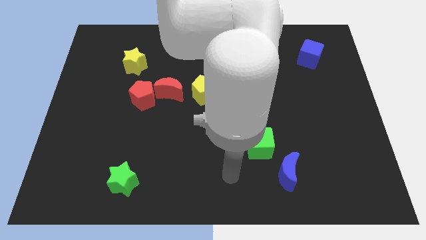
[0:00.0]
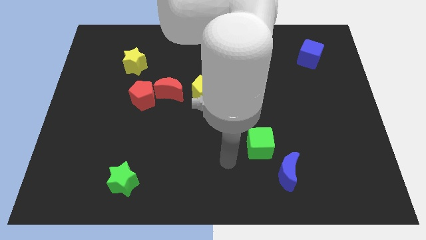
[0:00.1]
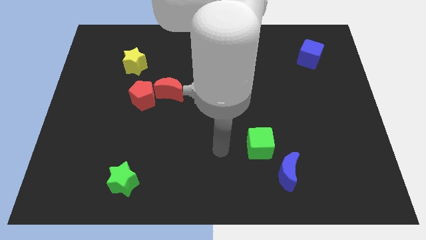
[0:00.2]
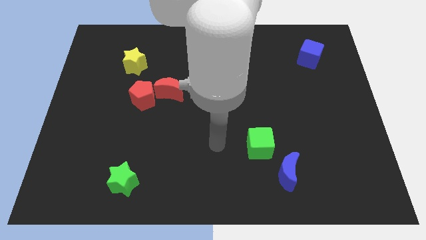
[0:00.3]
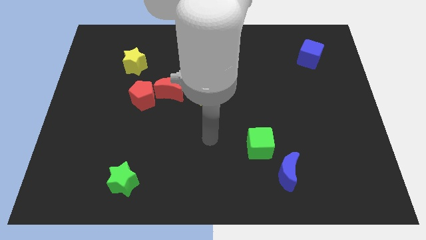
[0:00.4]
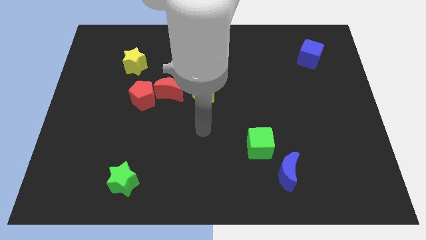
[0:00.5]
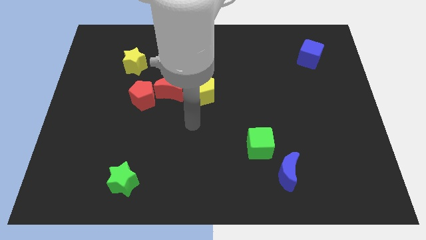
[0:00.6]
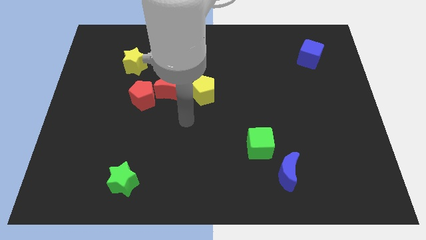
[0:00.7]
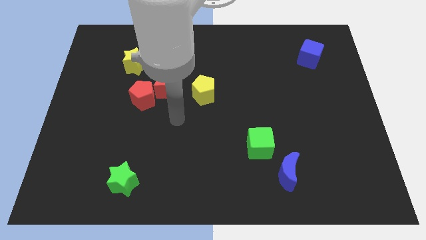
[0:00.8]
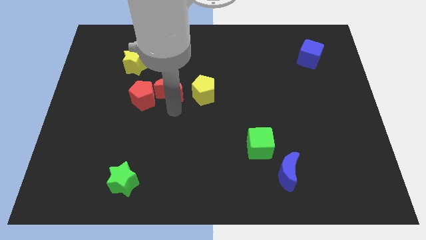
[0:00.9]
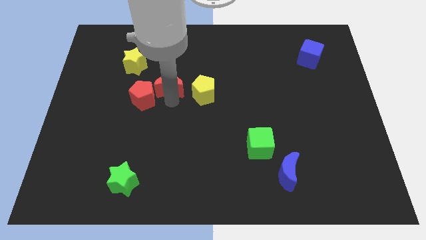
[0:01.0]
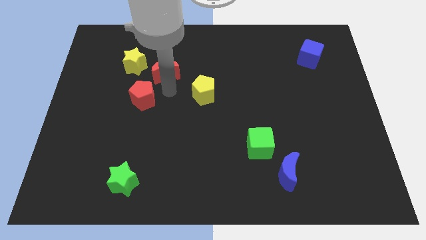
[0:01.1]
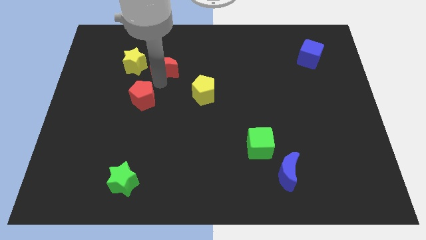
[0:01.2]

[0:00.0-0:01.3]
move the red pentagon away from the red moon

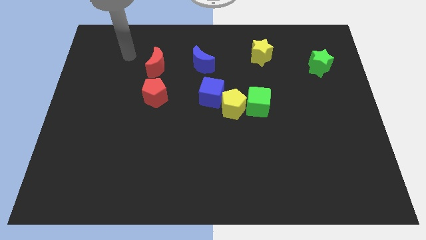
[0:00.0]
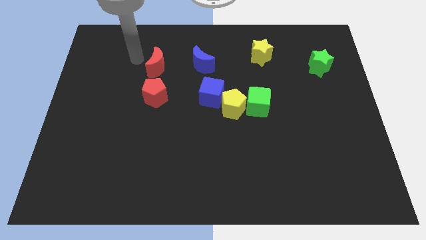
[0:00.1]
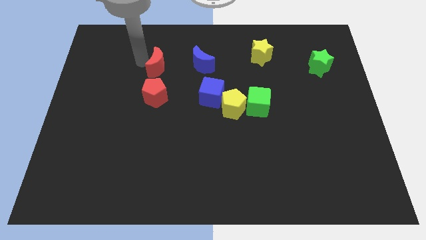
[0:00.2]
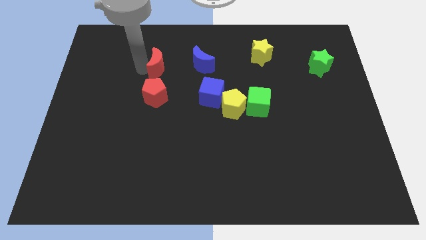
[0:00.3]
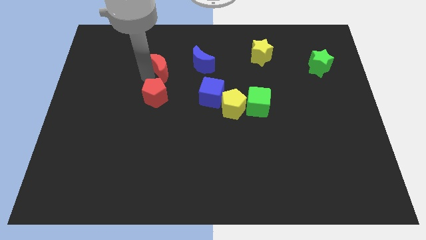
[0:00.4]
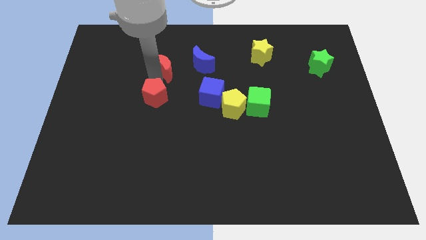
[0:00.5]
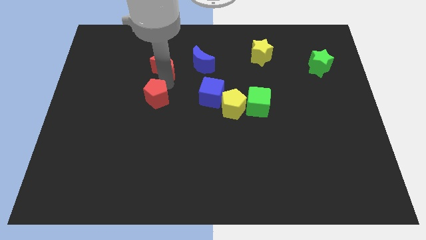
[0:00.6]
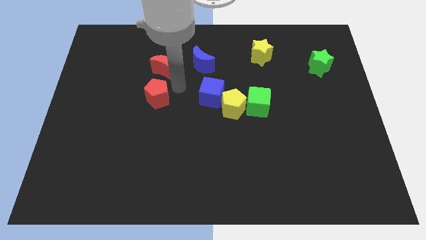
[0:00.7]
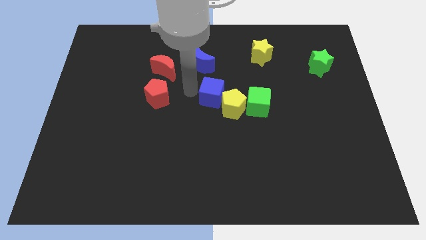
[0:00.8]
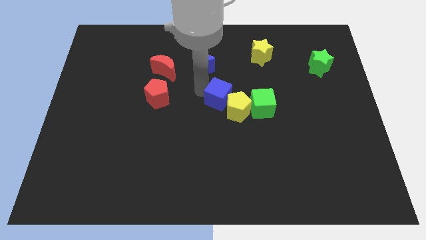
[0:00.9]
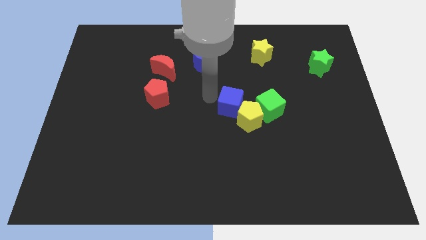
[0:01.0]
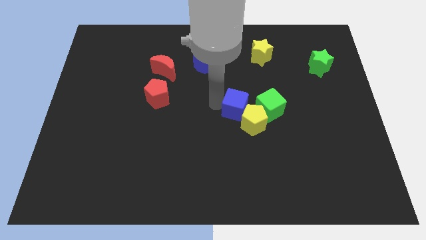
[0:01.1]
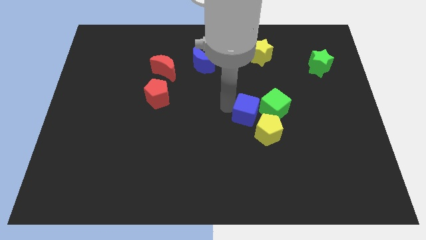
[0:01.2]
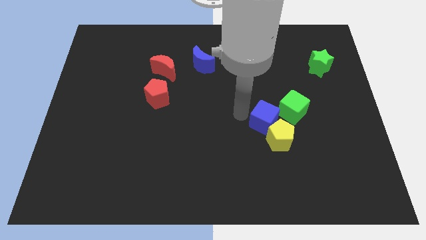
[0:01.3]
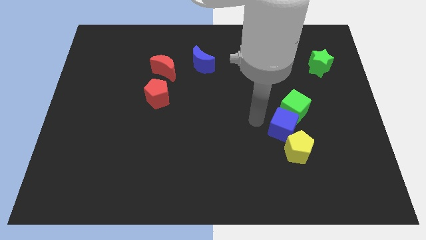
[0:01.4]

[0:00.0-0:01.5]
pull the green cube apart from the yellow pentagon

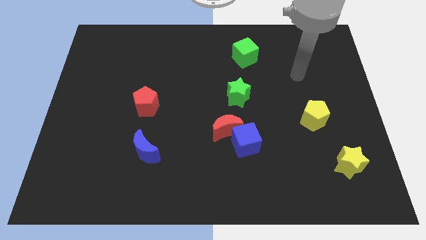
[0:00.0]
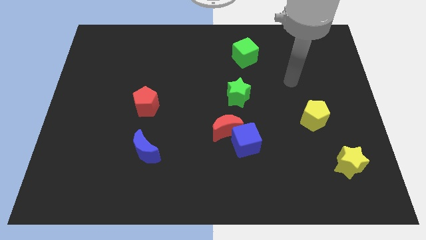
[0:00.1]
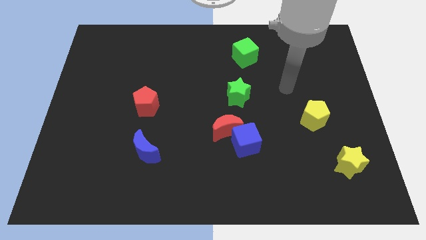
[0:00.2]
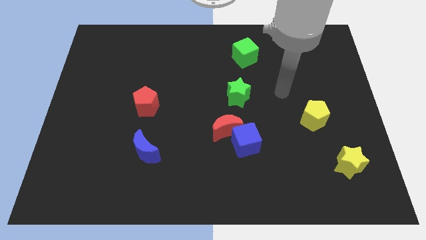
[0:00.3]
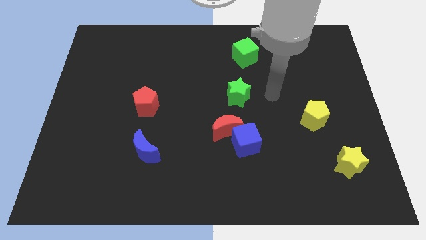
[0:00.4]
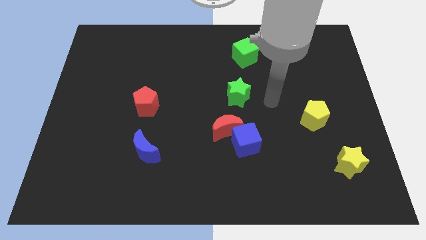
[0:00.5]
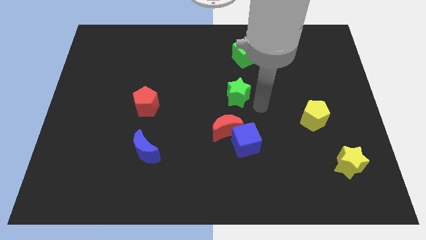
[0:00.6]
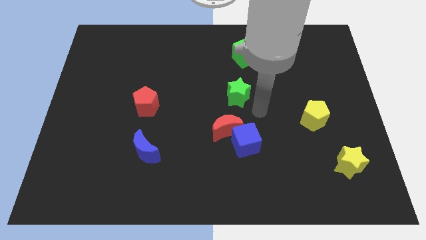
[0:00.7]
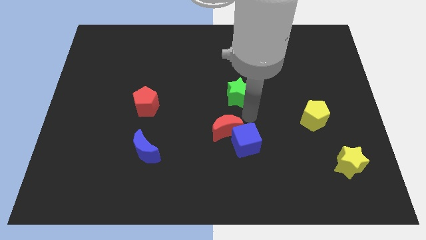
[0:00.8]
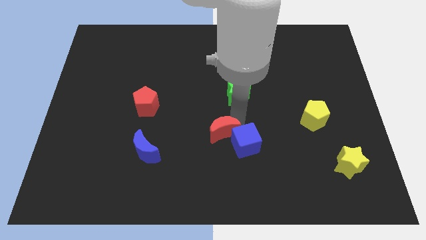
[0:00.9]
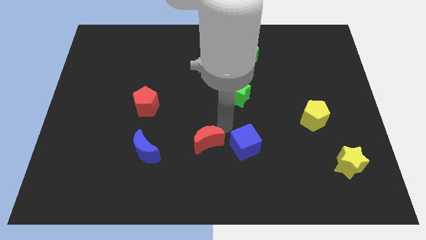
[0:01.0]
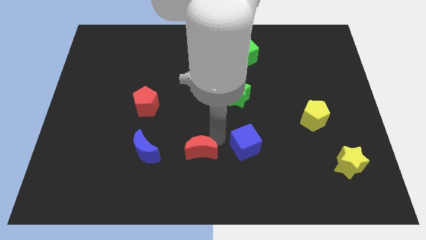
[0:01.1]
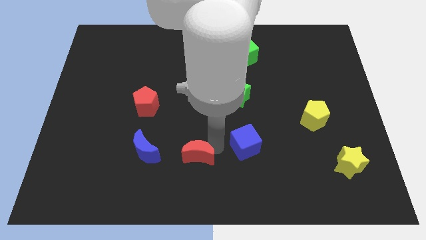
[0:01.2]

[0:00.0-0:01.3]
separate the blue cube from the red moon

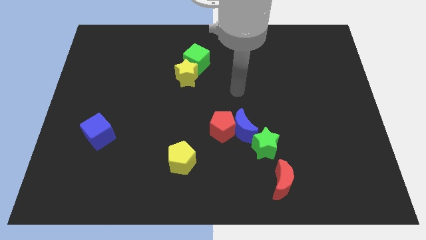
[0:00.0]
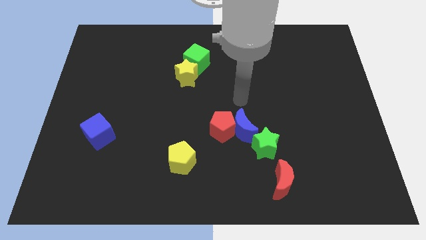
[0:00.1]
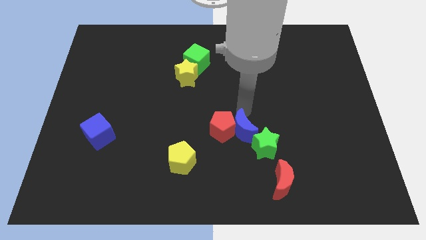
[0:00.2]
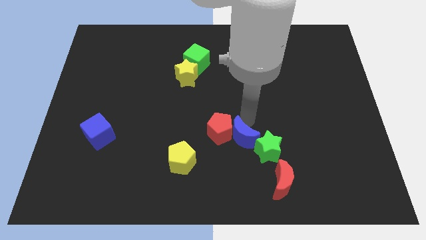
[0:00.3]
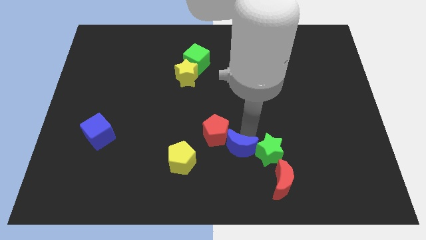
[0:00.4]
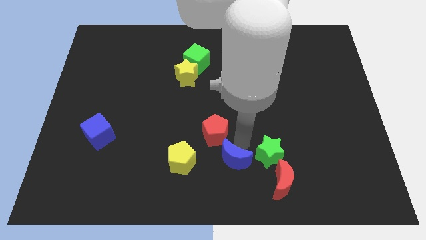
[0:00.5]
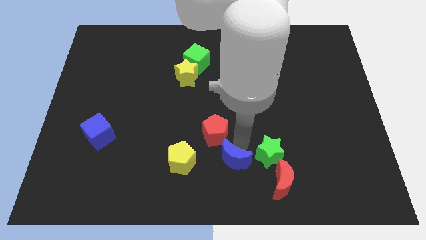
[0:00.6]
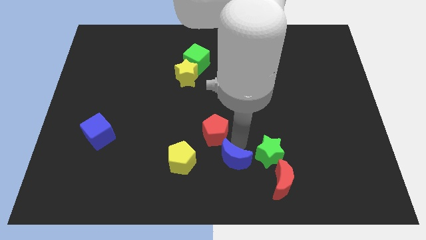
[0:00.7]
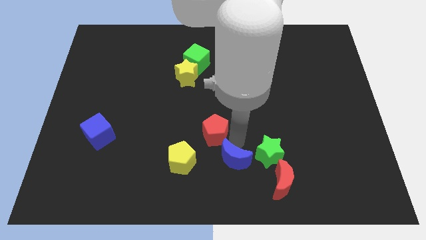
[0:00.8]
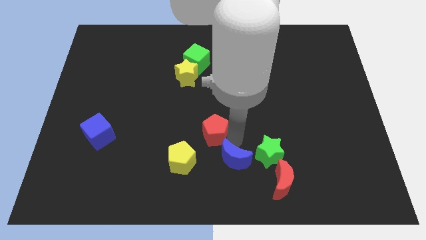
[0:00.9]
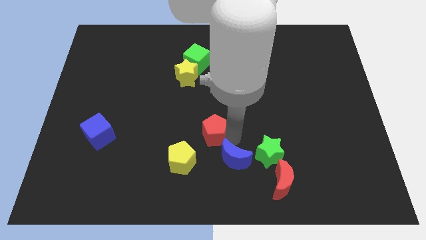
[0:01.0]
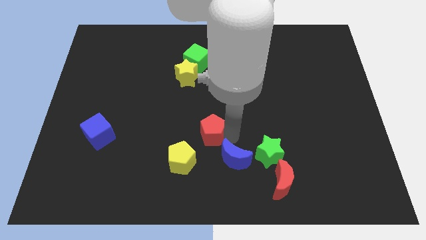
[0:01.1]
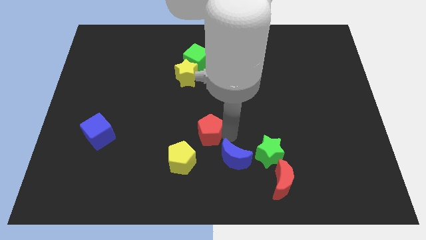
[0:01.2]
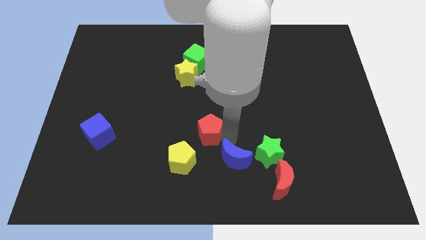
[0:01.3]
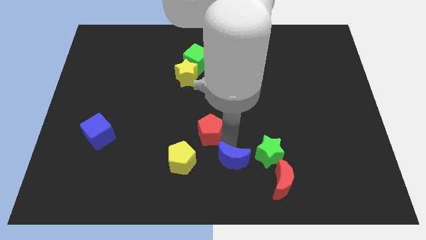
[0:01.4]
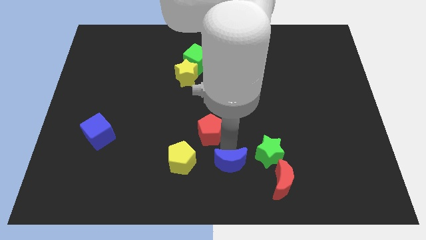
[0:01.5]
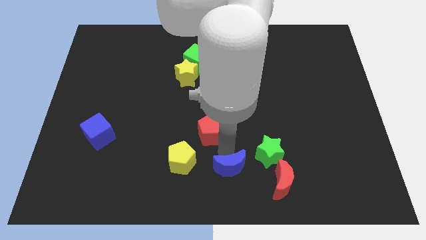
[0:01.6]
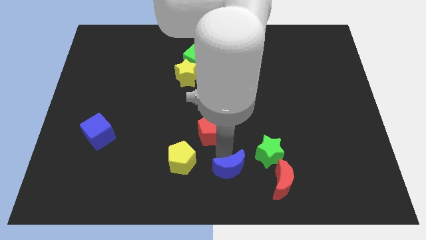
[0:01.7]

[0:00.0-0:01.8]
separate the red pentagon from the blue moon

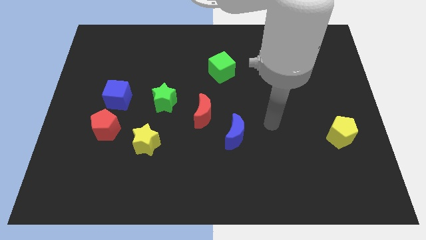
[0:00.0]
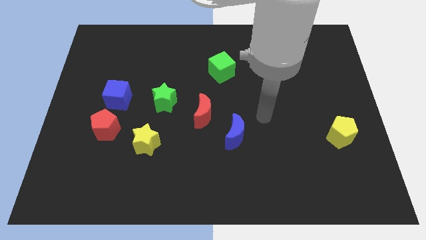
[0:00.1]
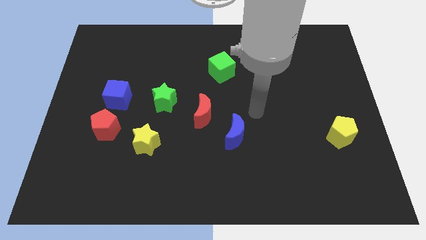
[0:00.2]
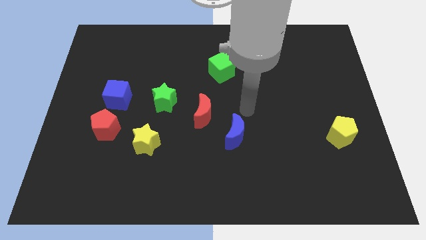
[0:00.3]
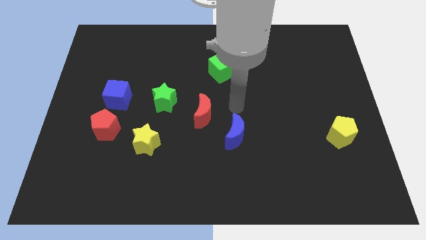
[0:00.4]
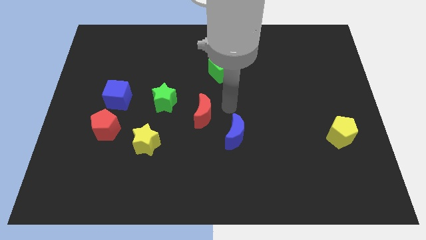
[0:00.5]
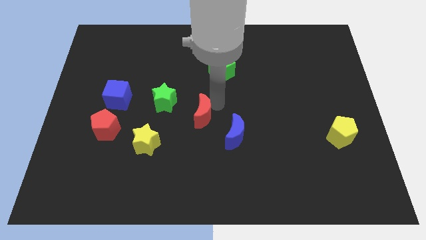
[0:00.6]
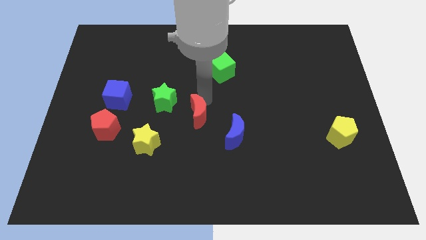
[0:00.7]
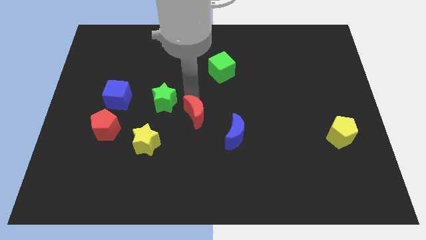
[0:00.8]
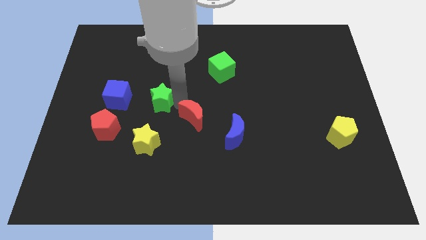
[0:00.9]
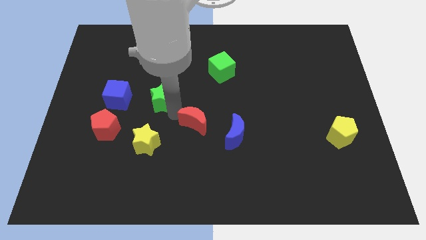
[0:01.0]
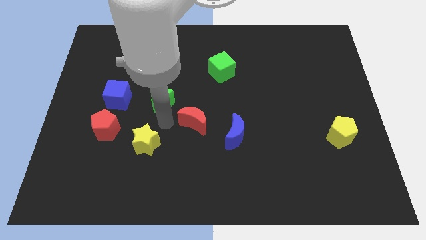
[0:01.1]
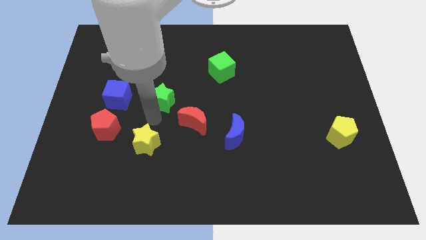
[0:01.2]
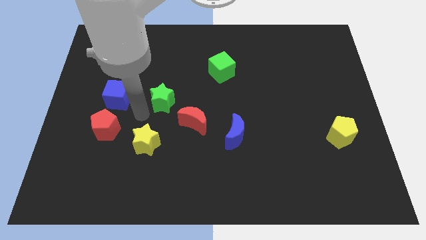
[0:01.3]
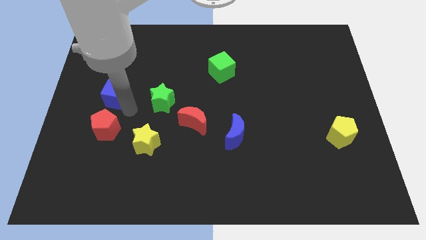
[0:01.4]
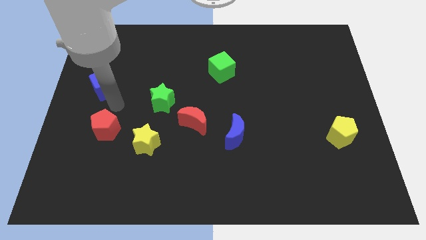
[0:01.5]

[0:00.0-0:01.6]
pull the red pentagon apart from the blue cube

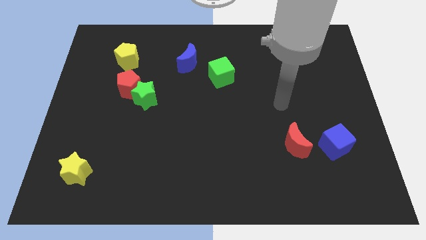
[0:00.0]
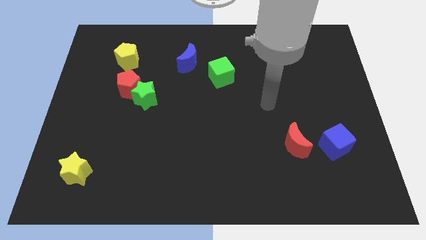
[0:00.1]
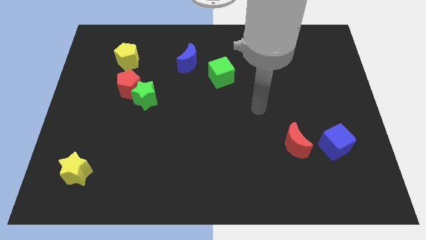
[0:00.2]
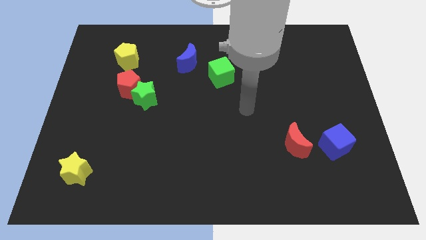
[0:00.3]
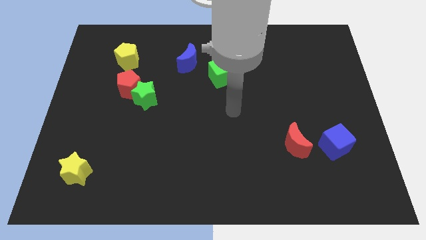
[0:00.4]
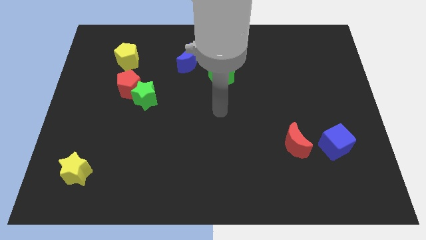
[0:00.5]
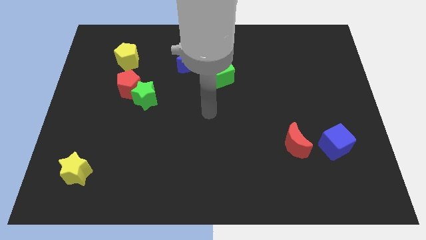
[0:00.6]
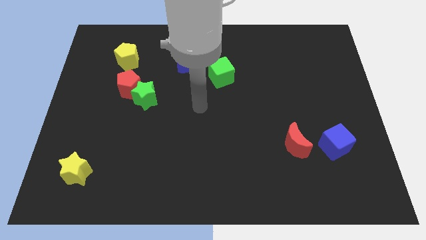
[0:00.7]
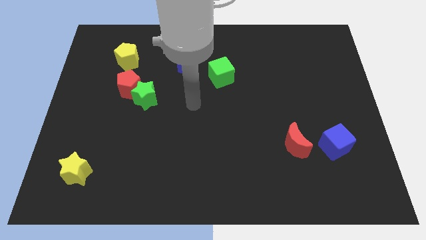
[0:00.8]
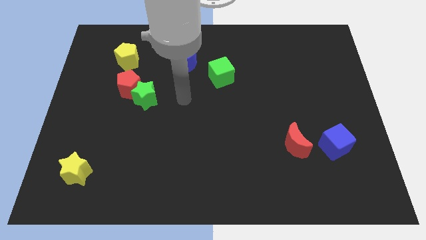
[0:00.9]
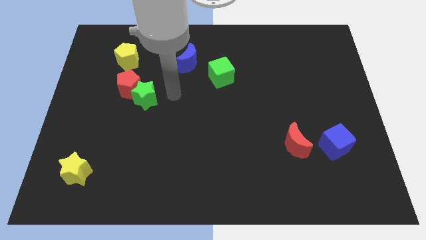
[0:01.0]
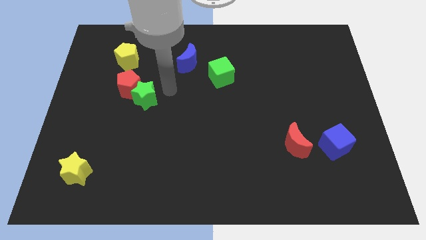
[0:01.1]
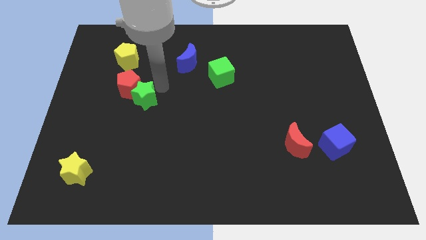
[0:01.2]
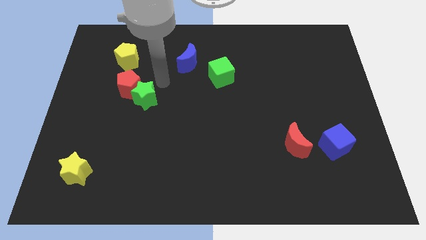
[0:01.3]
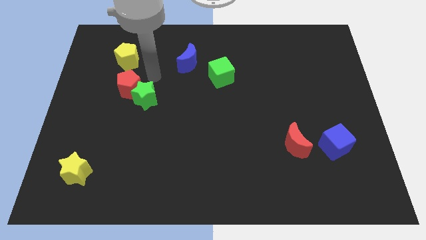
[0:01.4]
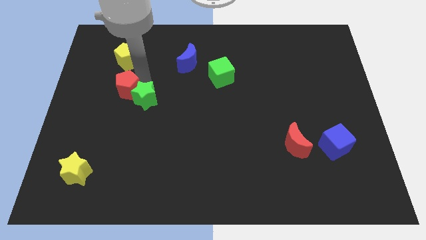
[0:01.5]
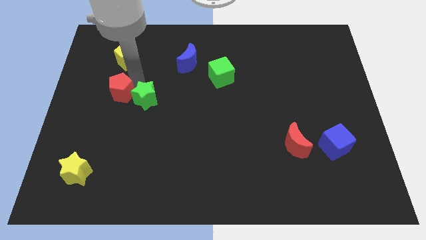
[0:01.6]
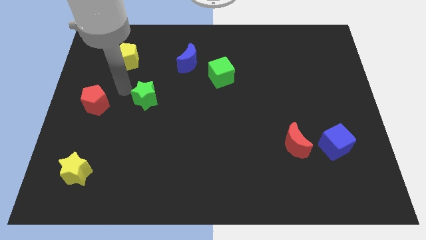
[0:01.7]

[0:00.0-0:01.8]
pull the green star apart from the red pentagon

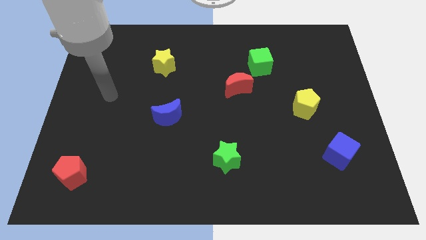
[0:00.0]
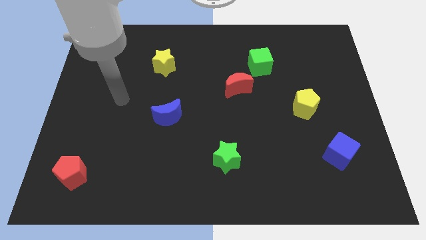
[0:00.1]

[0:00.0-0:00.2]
move the red moon away from the green cube
